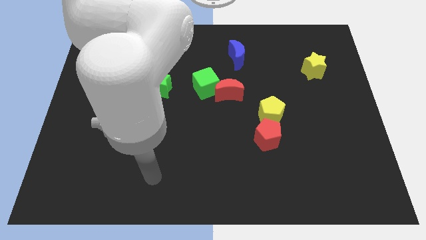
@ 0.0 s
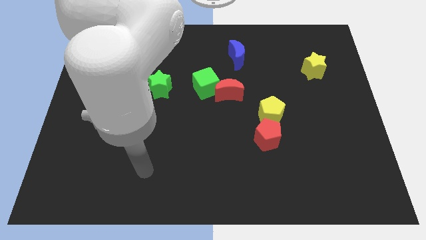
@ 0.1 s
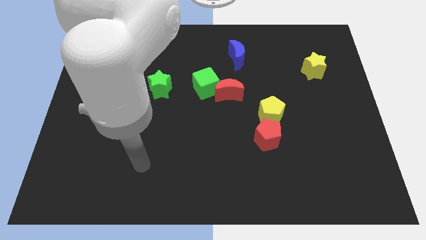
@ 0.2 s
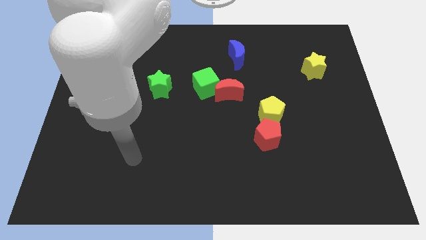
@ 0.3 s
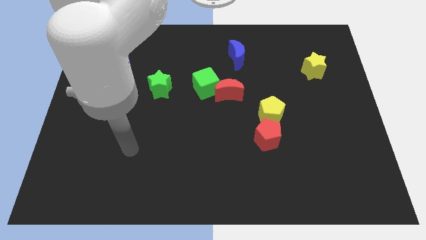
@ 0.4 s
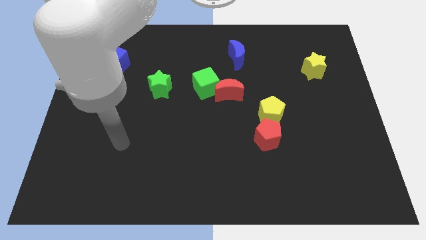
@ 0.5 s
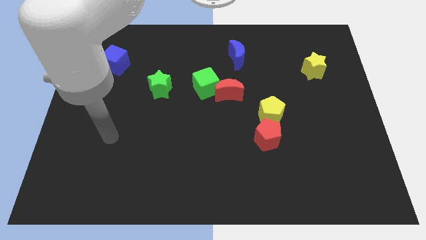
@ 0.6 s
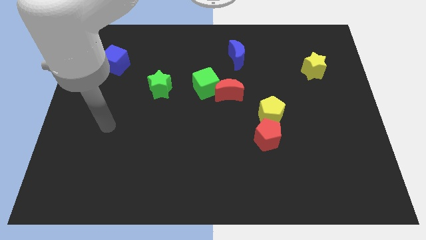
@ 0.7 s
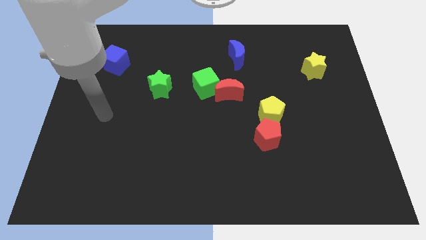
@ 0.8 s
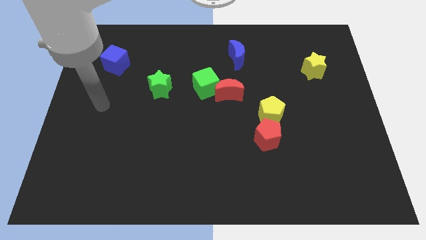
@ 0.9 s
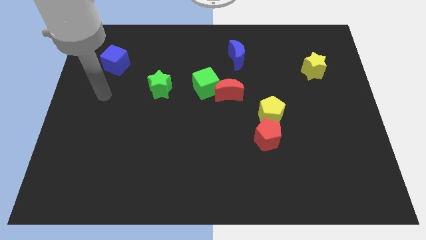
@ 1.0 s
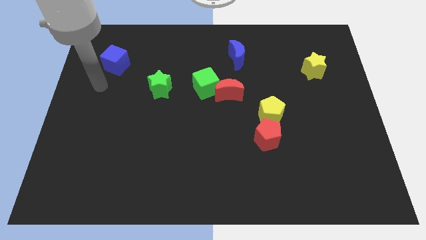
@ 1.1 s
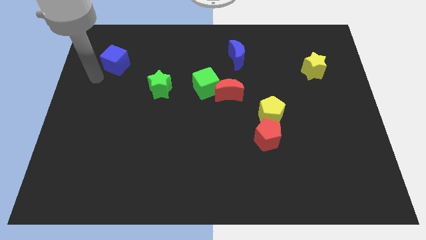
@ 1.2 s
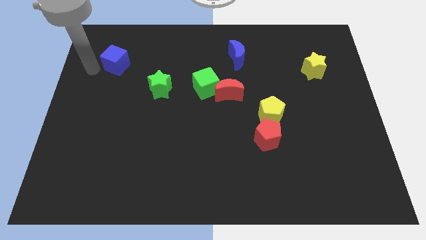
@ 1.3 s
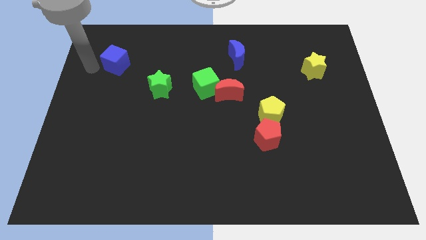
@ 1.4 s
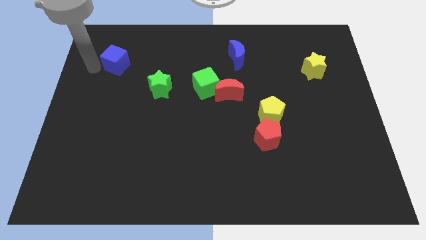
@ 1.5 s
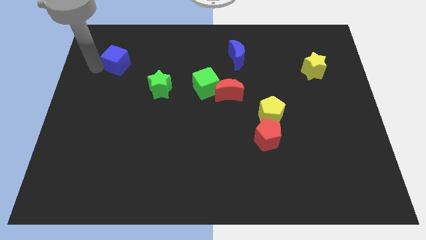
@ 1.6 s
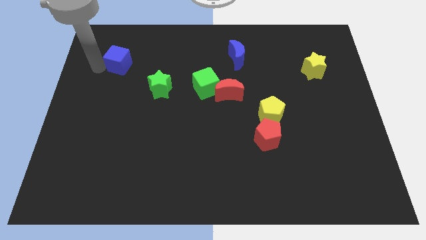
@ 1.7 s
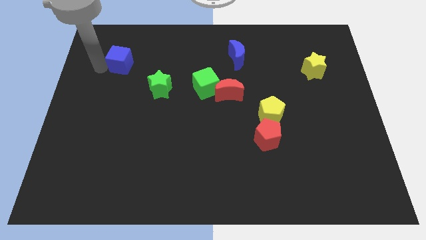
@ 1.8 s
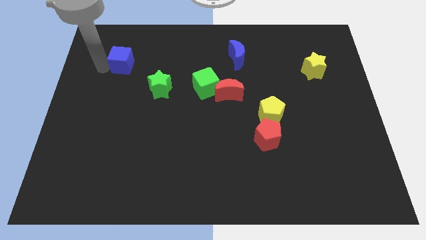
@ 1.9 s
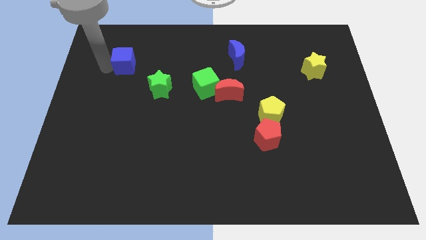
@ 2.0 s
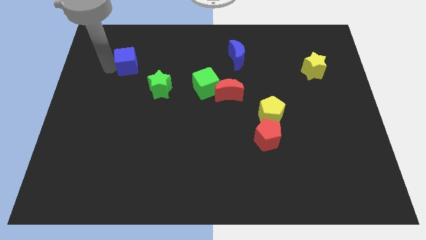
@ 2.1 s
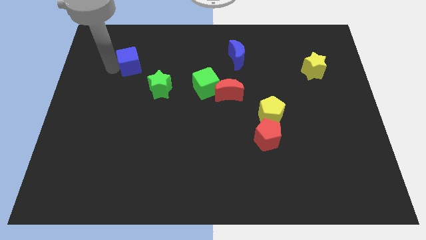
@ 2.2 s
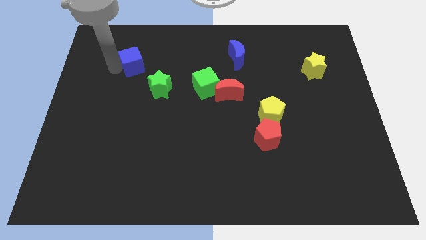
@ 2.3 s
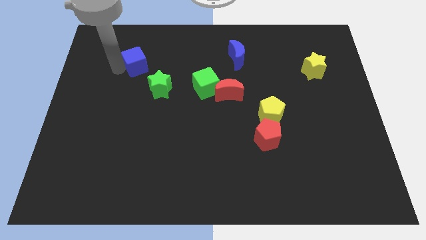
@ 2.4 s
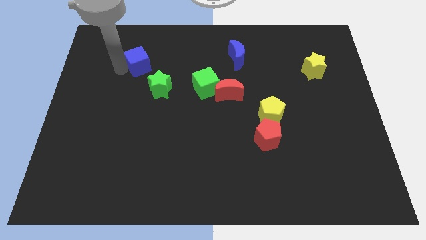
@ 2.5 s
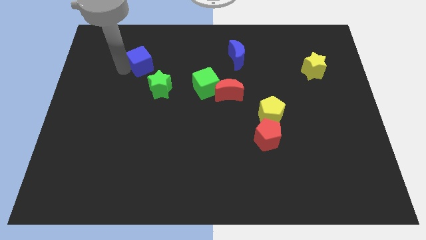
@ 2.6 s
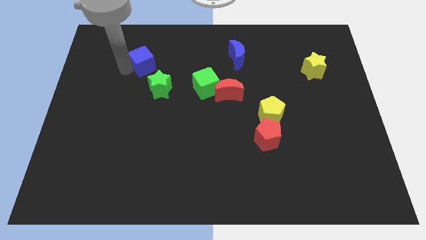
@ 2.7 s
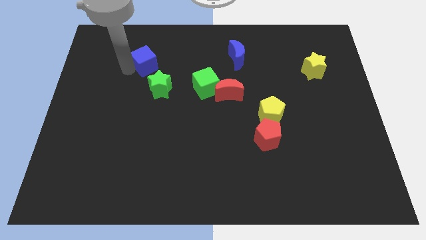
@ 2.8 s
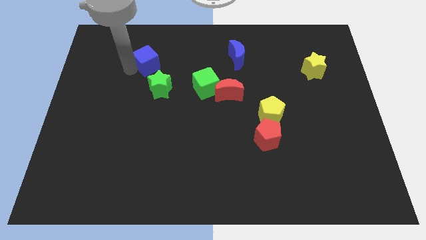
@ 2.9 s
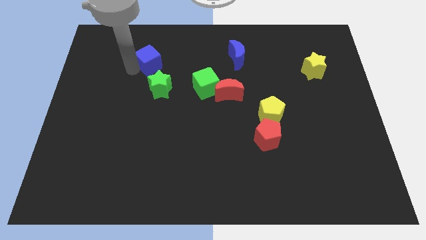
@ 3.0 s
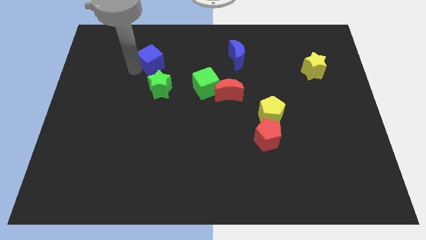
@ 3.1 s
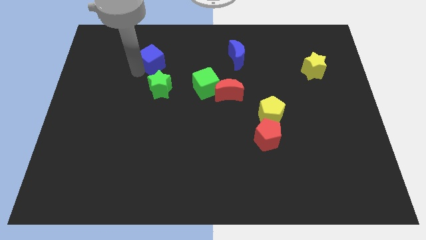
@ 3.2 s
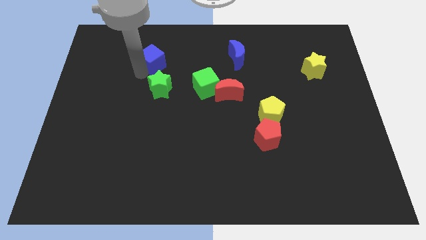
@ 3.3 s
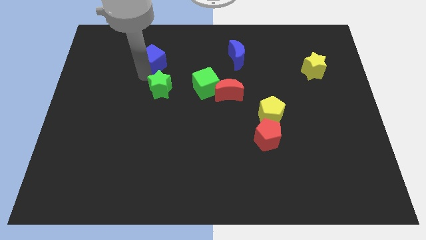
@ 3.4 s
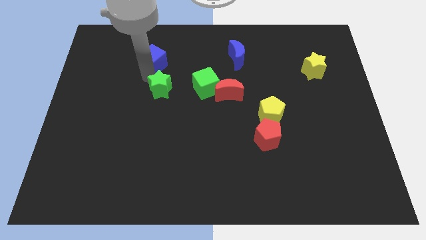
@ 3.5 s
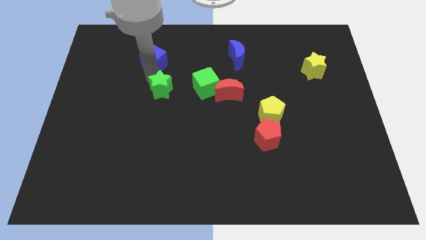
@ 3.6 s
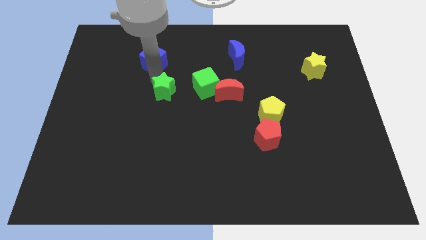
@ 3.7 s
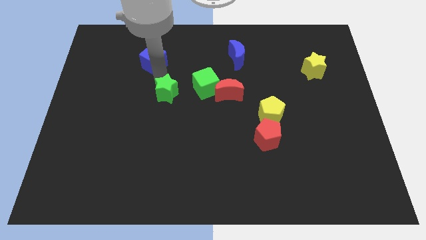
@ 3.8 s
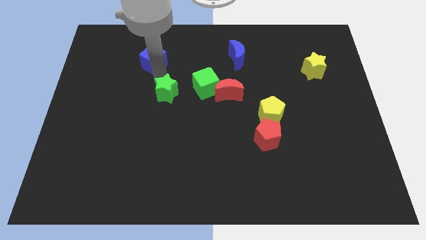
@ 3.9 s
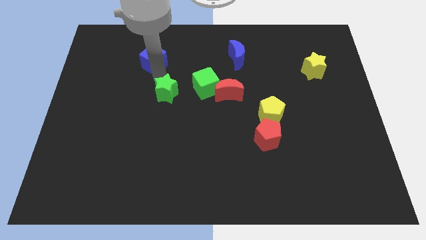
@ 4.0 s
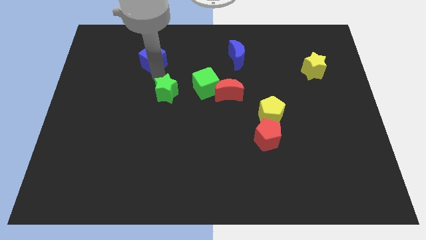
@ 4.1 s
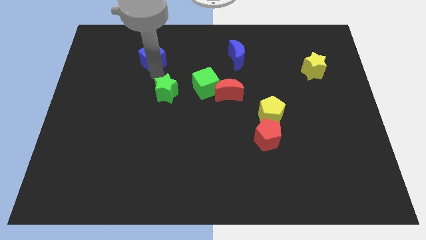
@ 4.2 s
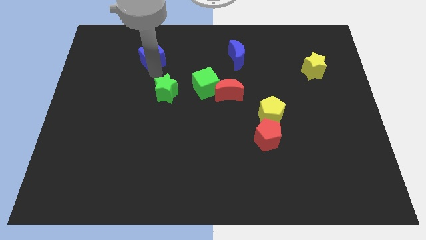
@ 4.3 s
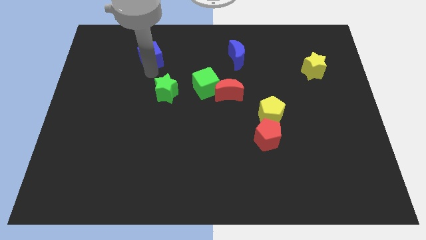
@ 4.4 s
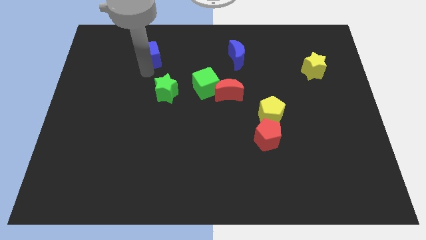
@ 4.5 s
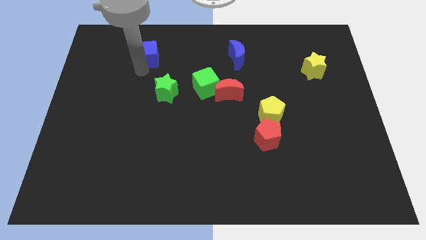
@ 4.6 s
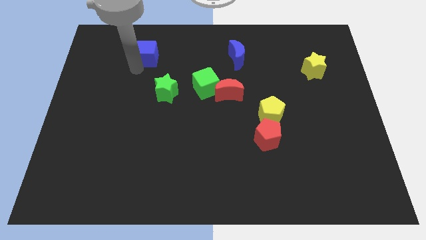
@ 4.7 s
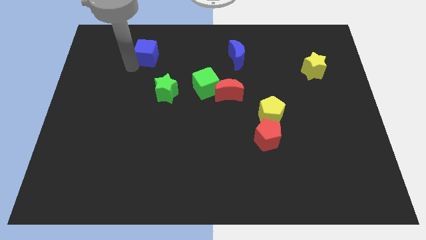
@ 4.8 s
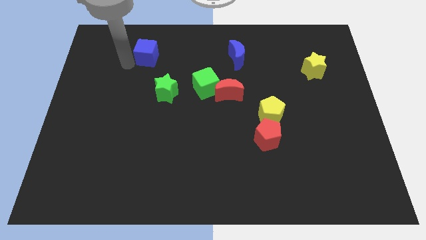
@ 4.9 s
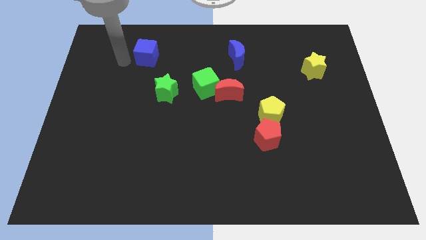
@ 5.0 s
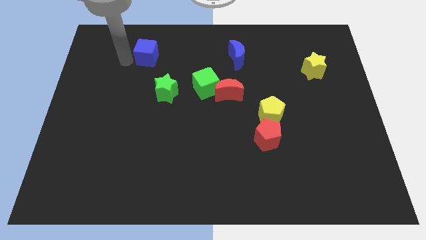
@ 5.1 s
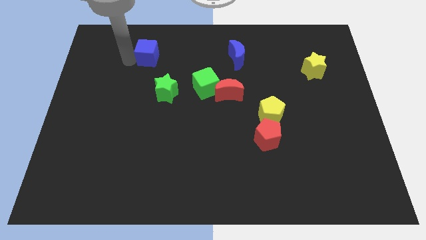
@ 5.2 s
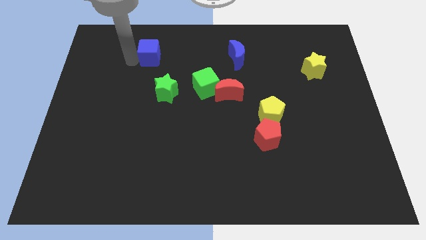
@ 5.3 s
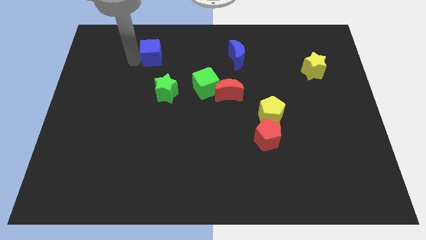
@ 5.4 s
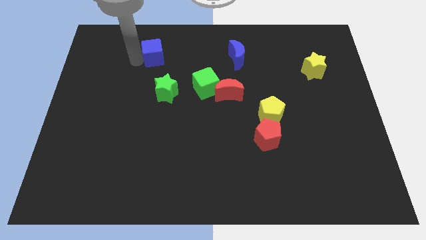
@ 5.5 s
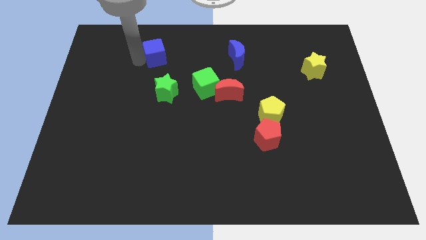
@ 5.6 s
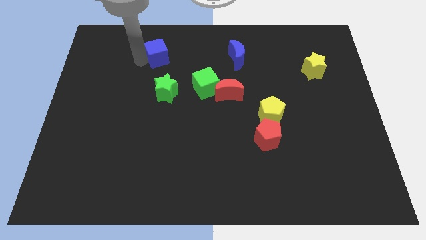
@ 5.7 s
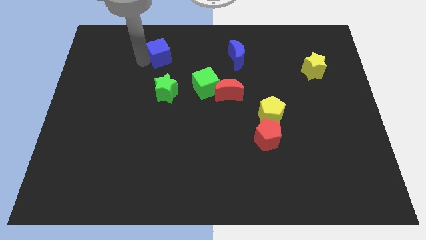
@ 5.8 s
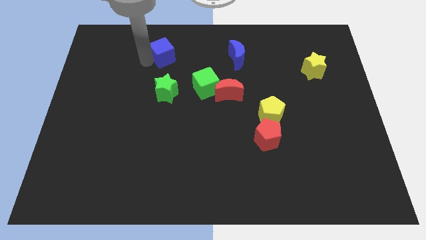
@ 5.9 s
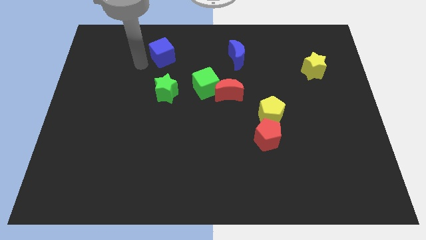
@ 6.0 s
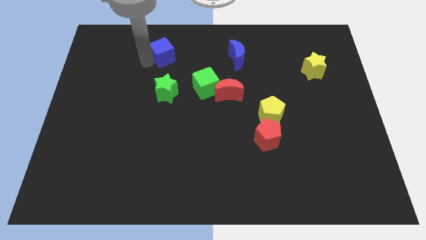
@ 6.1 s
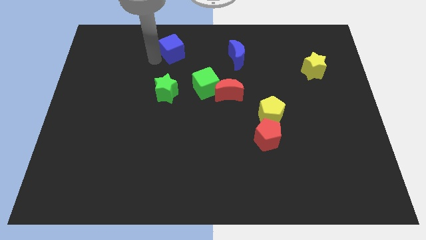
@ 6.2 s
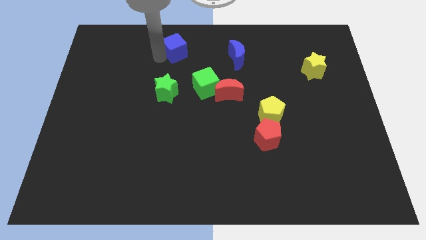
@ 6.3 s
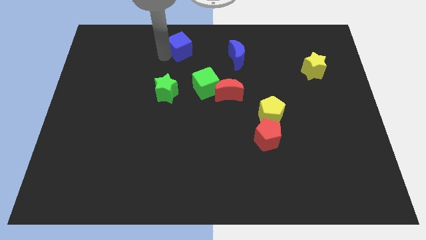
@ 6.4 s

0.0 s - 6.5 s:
slide the blue cube to the top
